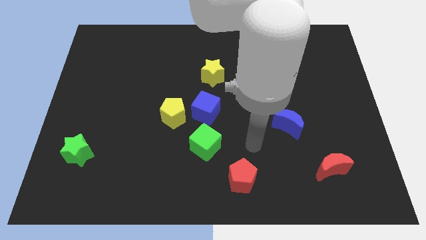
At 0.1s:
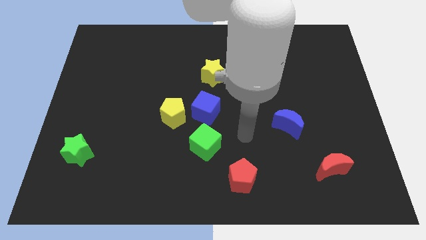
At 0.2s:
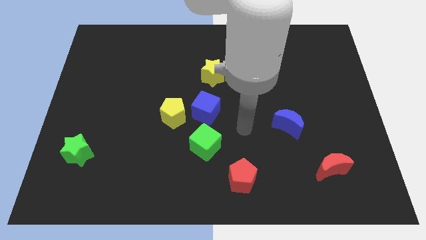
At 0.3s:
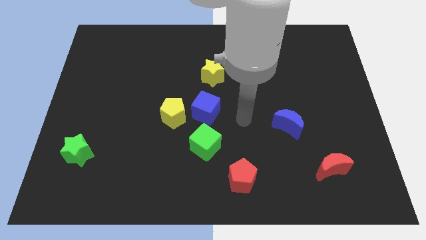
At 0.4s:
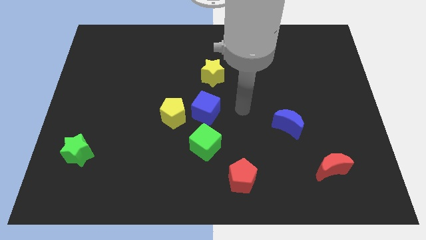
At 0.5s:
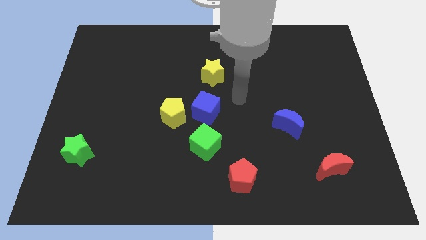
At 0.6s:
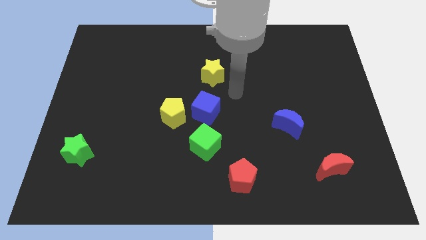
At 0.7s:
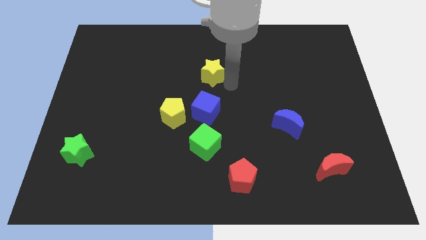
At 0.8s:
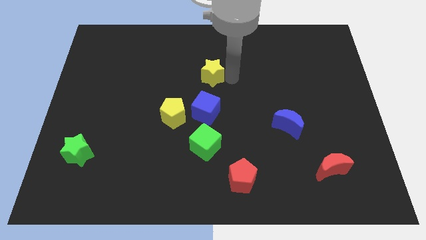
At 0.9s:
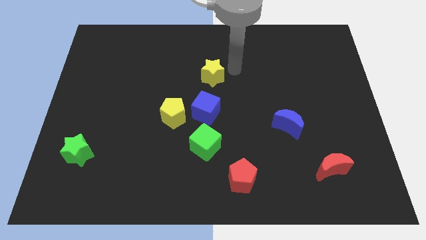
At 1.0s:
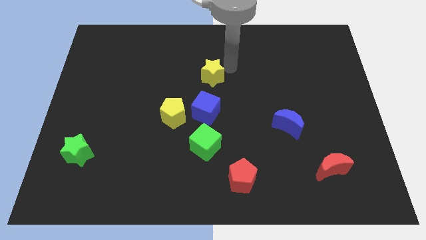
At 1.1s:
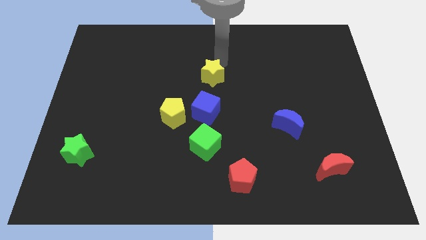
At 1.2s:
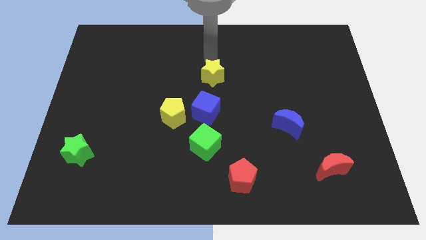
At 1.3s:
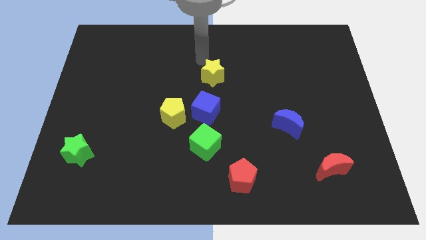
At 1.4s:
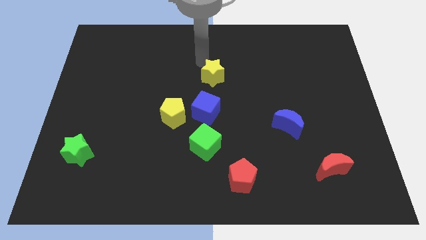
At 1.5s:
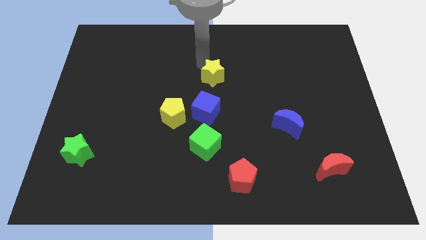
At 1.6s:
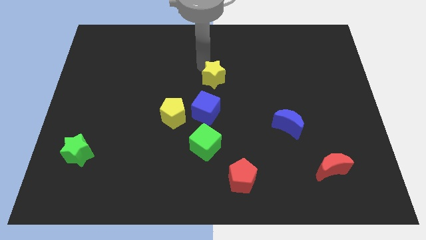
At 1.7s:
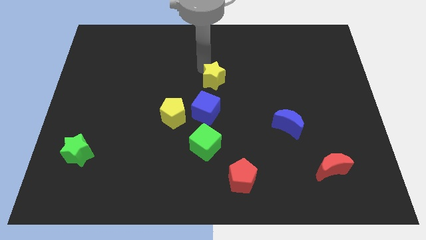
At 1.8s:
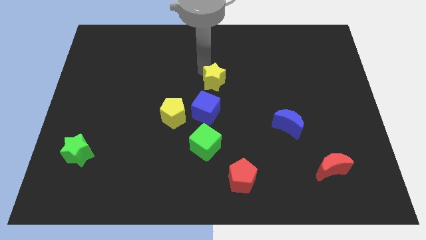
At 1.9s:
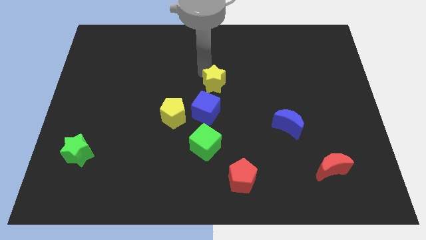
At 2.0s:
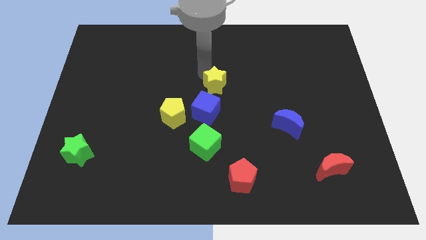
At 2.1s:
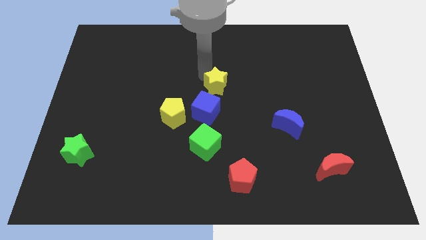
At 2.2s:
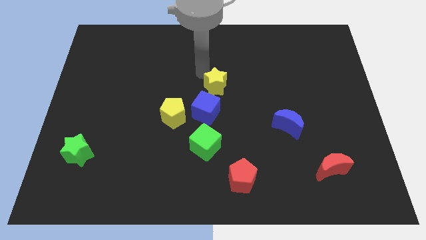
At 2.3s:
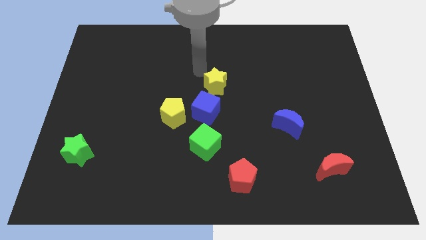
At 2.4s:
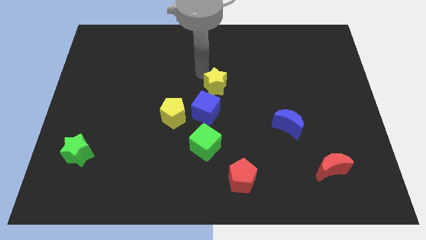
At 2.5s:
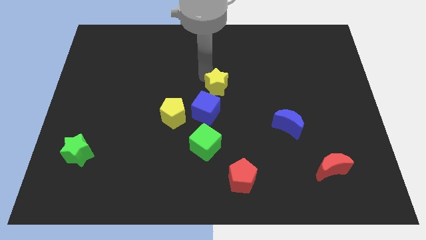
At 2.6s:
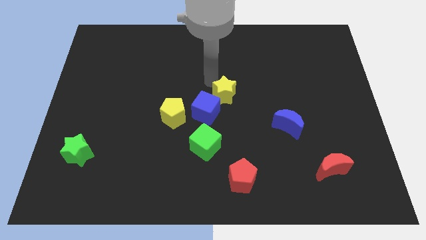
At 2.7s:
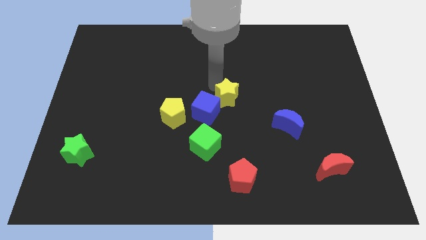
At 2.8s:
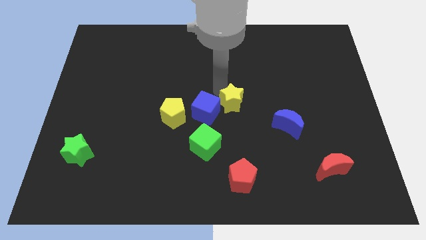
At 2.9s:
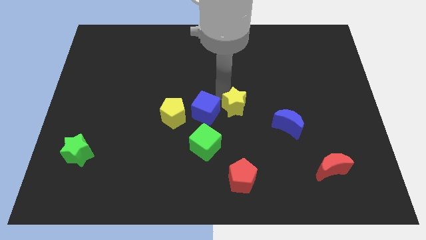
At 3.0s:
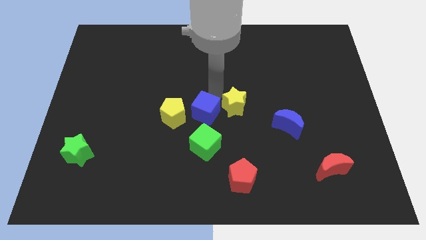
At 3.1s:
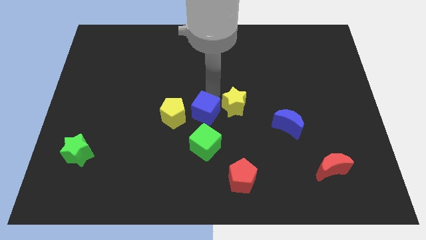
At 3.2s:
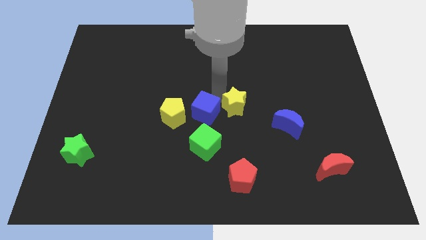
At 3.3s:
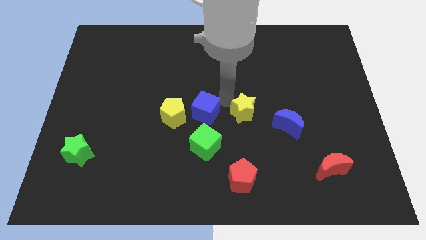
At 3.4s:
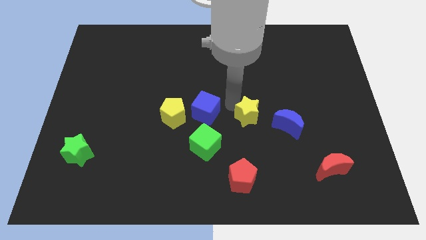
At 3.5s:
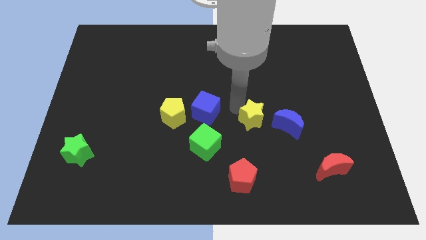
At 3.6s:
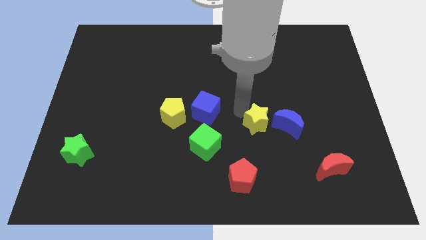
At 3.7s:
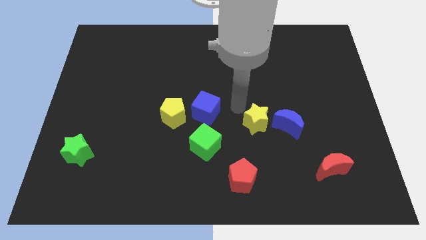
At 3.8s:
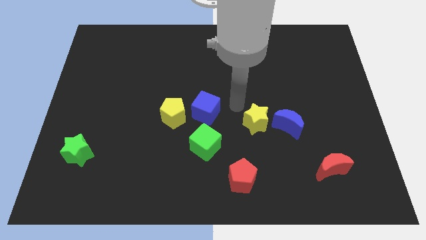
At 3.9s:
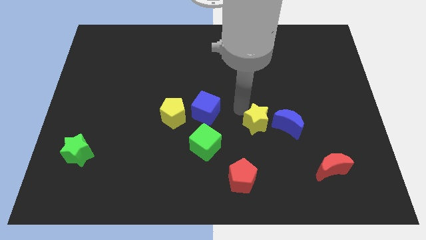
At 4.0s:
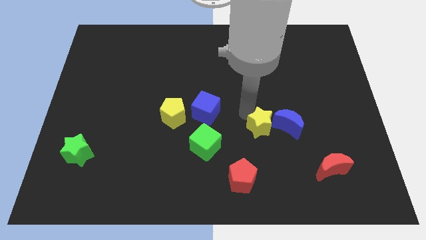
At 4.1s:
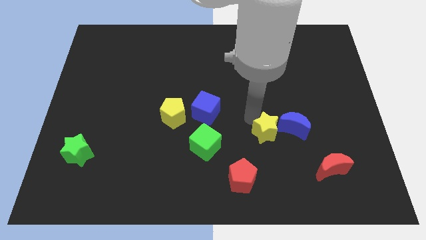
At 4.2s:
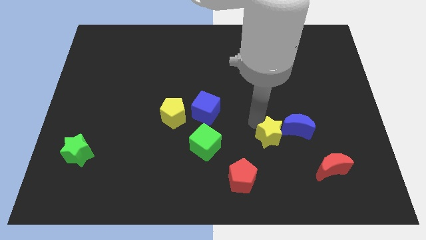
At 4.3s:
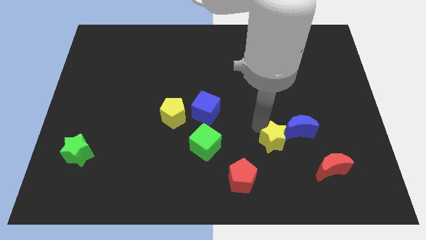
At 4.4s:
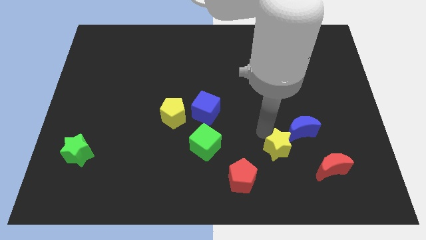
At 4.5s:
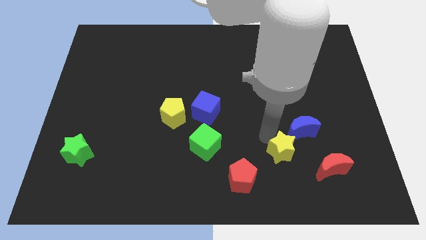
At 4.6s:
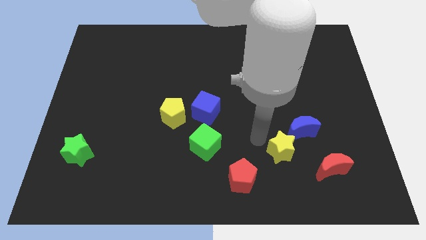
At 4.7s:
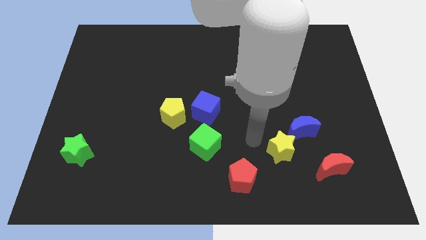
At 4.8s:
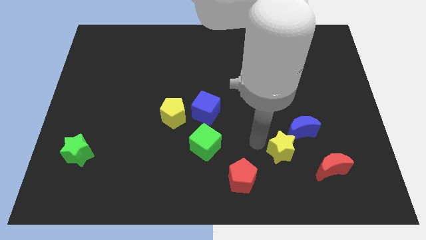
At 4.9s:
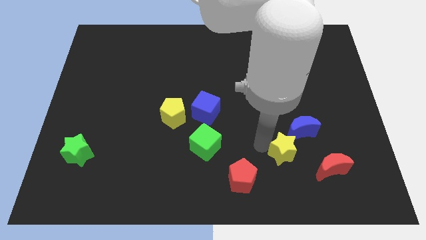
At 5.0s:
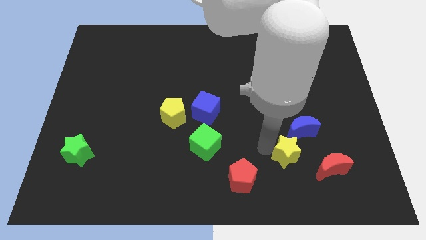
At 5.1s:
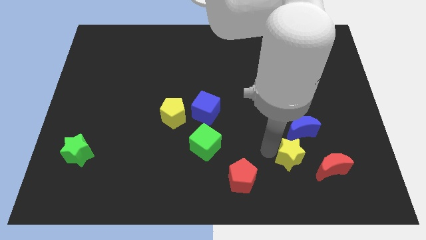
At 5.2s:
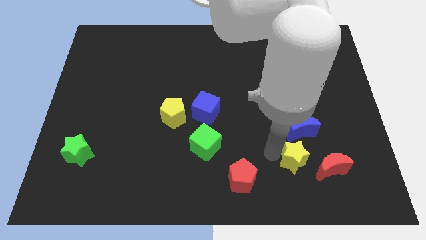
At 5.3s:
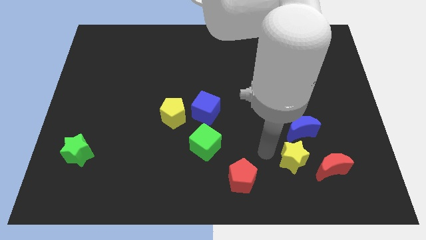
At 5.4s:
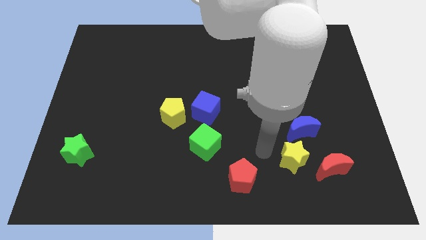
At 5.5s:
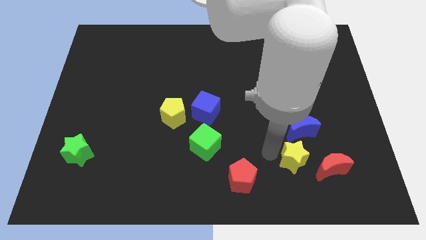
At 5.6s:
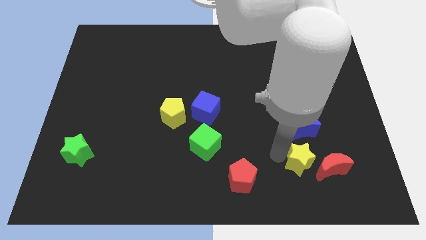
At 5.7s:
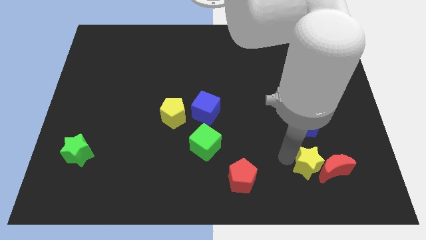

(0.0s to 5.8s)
move the yellow star close to the red moon

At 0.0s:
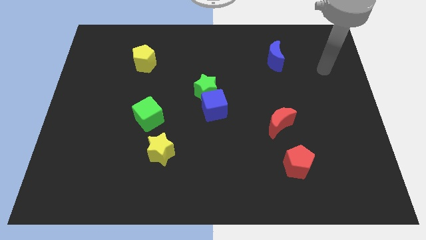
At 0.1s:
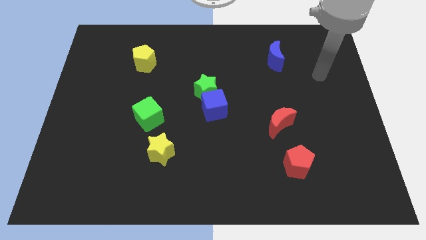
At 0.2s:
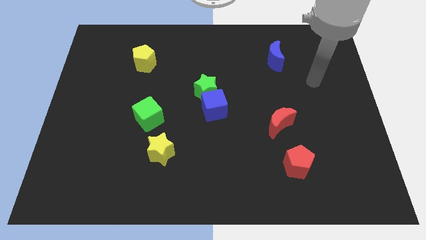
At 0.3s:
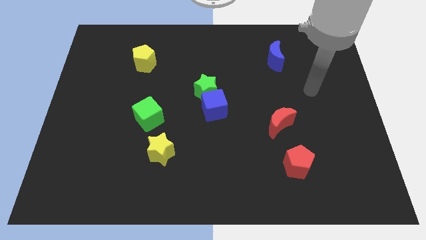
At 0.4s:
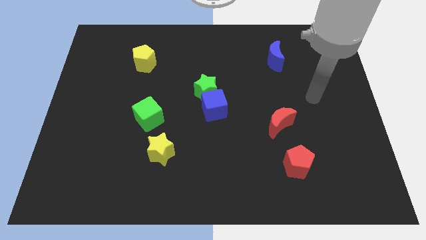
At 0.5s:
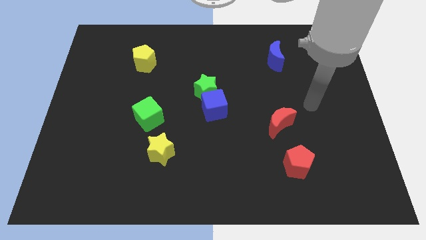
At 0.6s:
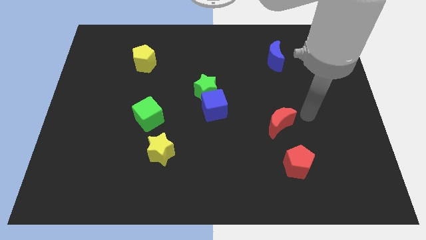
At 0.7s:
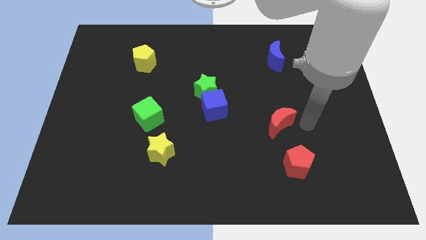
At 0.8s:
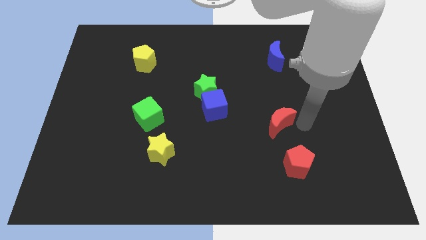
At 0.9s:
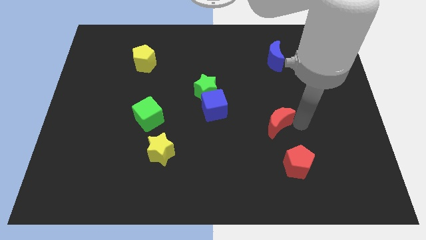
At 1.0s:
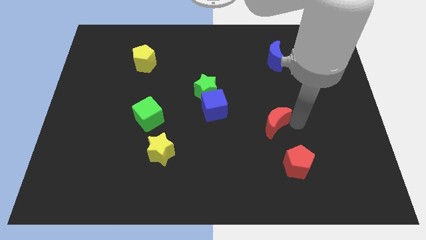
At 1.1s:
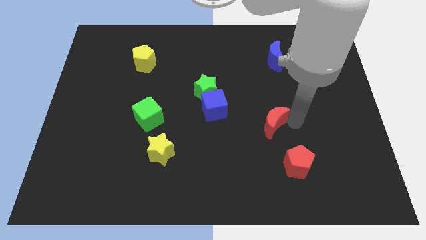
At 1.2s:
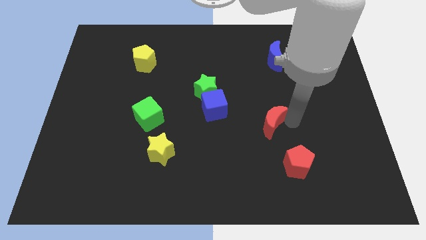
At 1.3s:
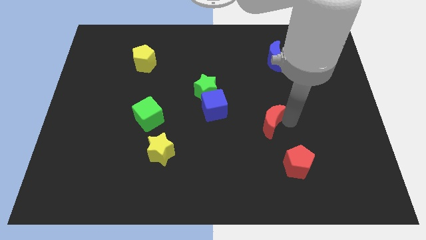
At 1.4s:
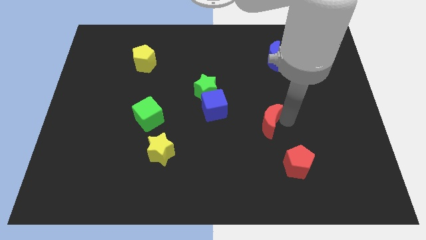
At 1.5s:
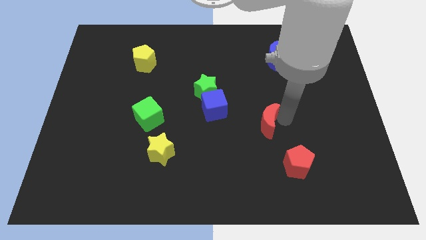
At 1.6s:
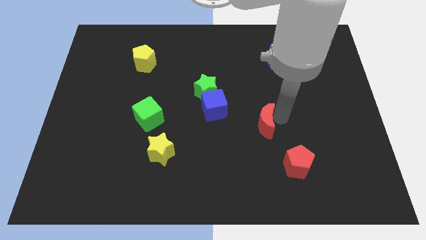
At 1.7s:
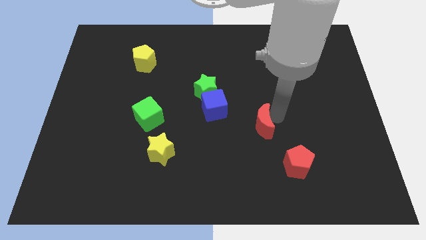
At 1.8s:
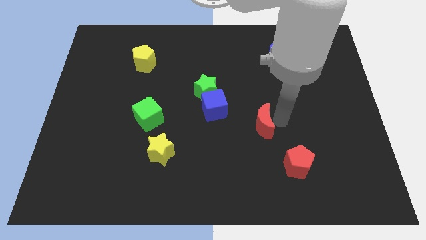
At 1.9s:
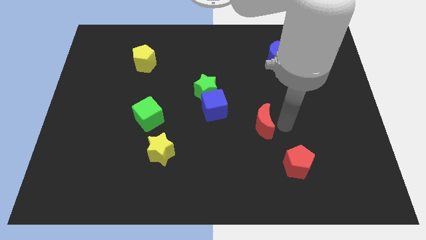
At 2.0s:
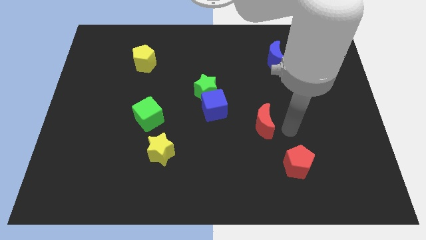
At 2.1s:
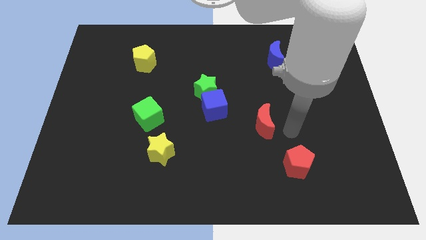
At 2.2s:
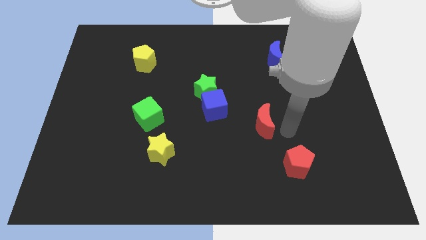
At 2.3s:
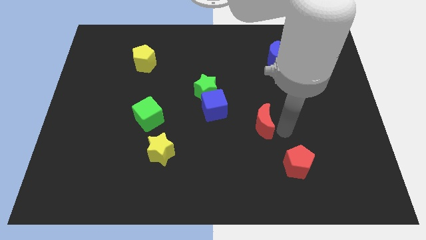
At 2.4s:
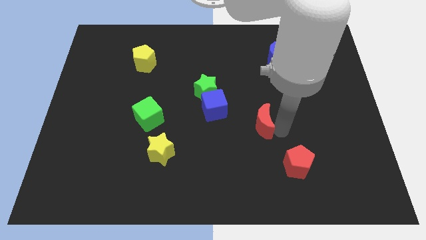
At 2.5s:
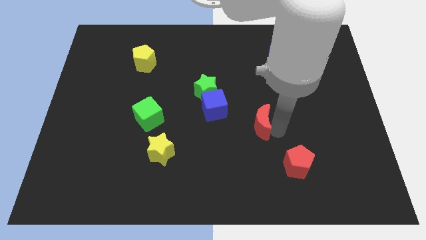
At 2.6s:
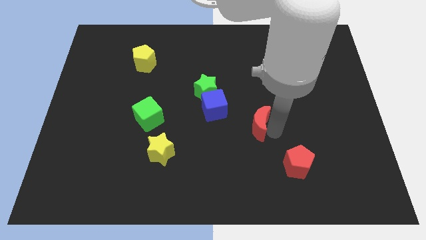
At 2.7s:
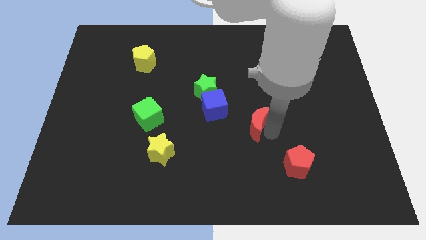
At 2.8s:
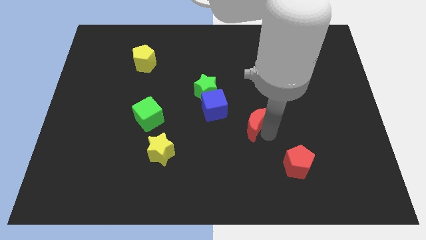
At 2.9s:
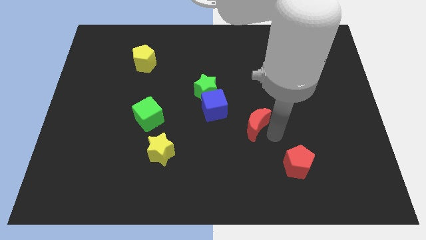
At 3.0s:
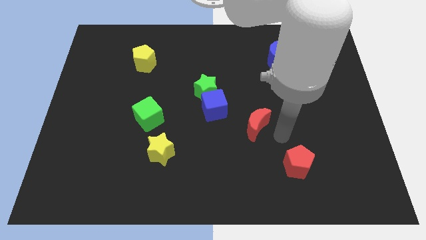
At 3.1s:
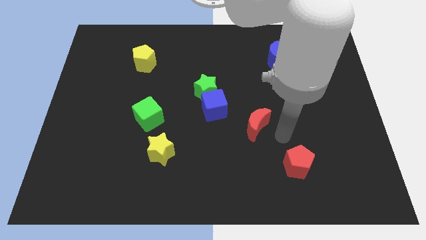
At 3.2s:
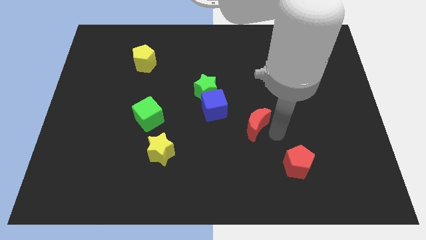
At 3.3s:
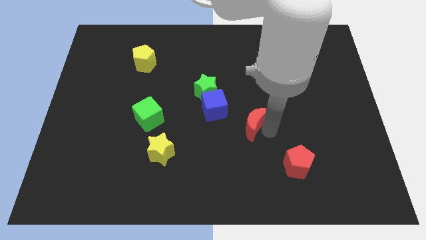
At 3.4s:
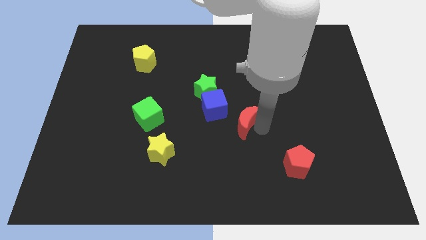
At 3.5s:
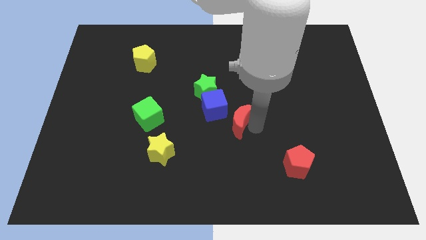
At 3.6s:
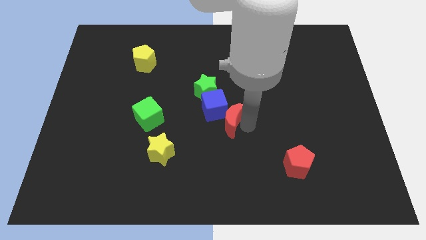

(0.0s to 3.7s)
push the red moon close to the blue cube
